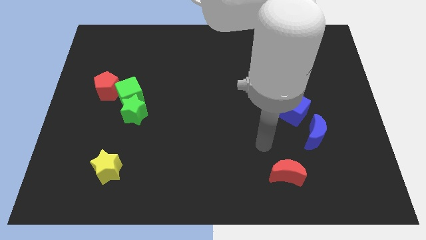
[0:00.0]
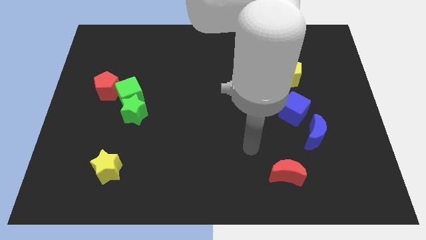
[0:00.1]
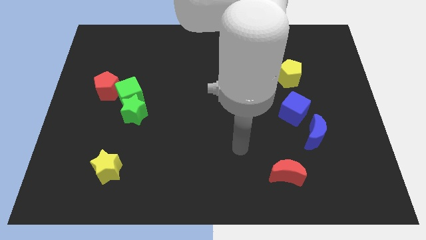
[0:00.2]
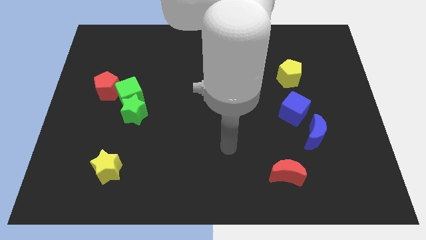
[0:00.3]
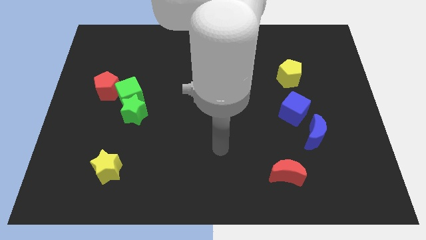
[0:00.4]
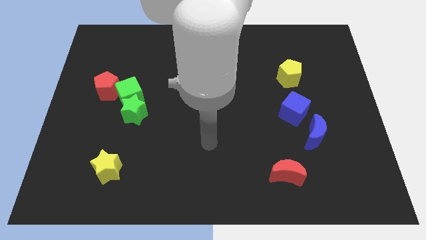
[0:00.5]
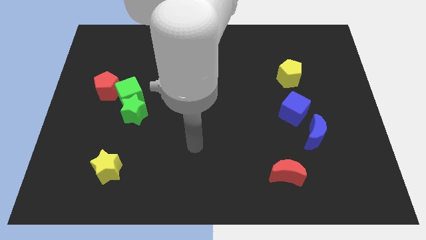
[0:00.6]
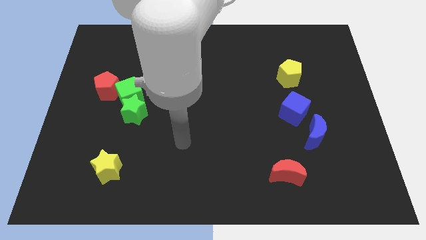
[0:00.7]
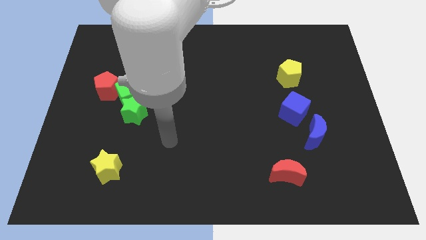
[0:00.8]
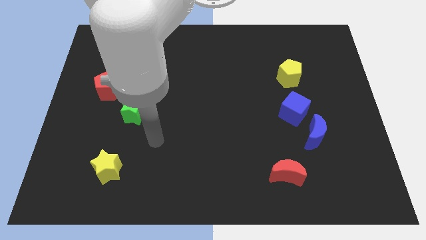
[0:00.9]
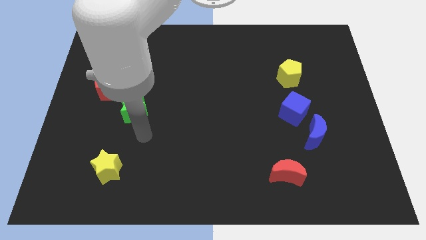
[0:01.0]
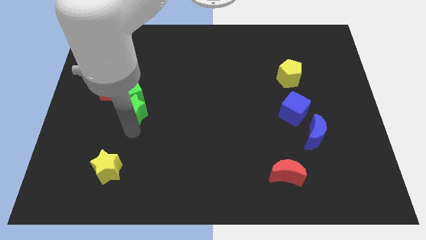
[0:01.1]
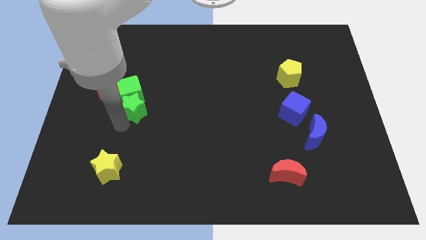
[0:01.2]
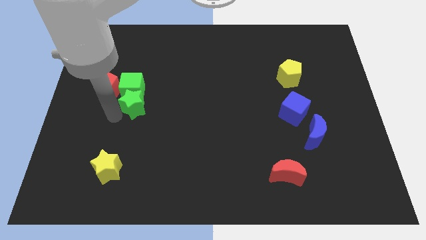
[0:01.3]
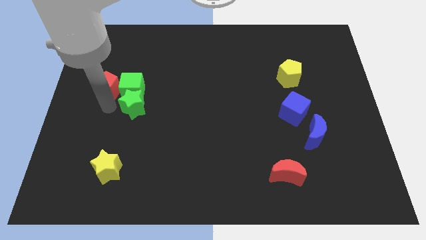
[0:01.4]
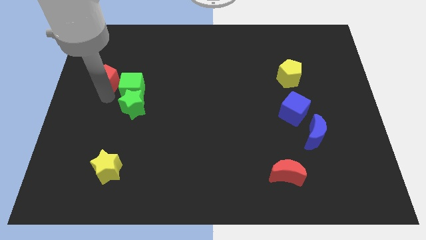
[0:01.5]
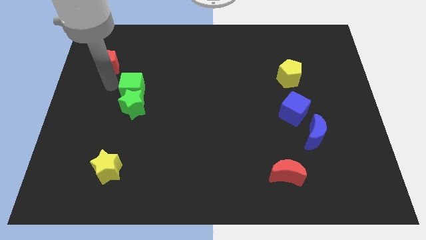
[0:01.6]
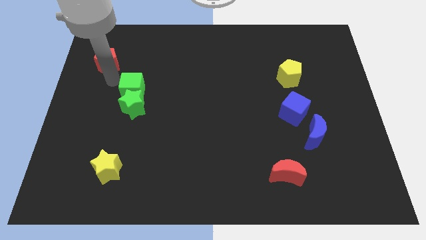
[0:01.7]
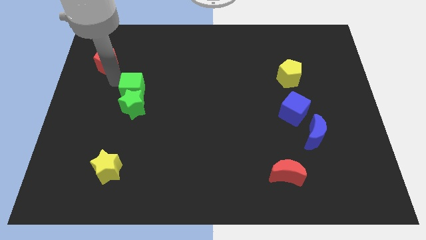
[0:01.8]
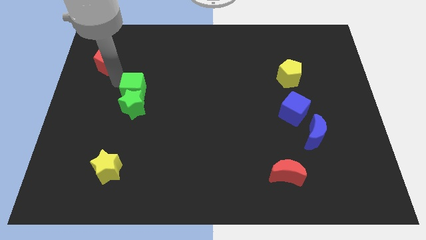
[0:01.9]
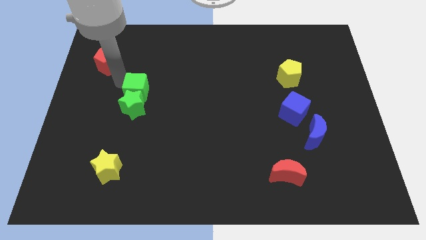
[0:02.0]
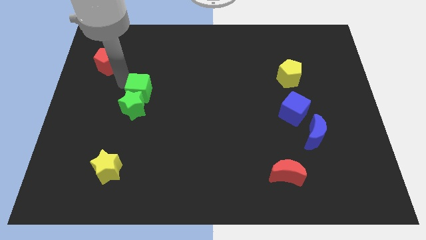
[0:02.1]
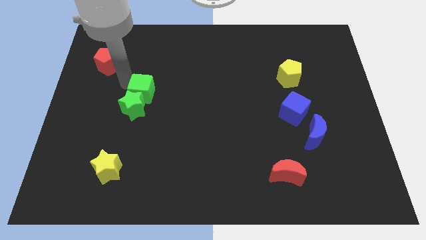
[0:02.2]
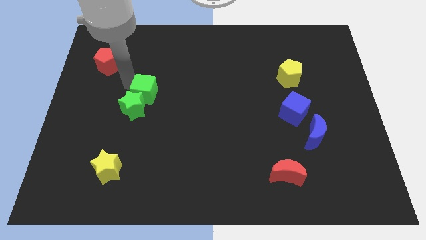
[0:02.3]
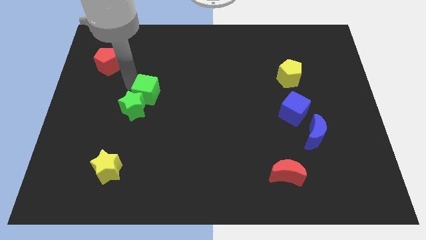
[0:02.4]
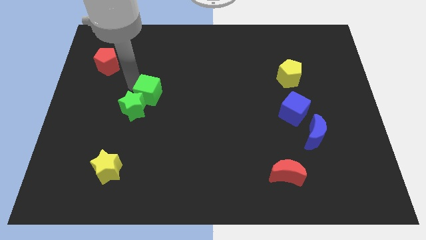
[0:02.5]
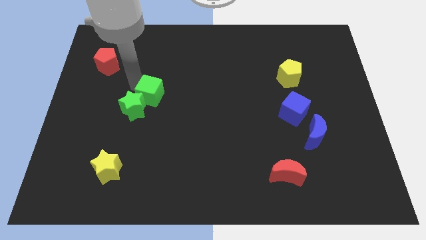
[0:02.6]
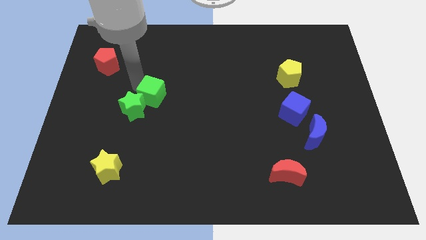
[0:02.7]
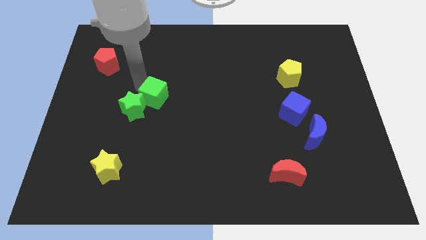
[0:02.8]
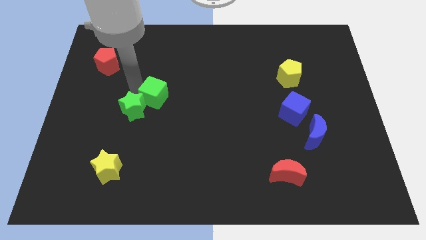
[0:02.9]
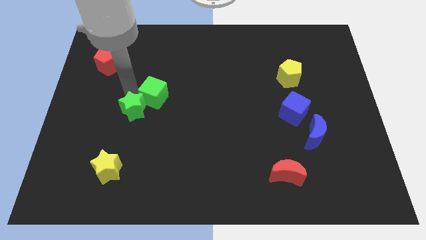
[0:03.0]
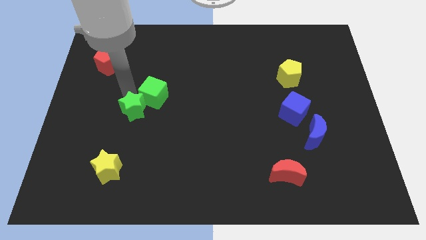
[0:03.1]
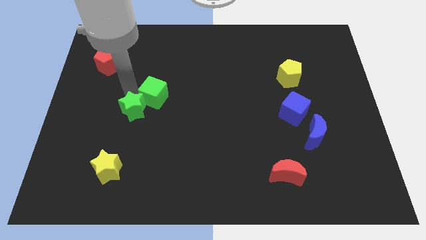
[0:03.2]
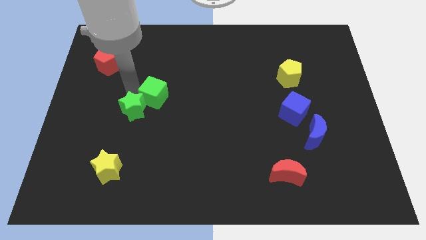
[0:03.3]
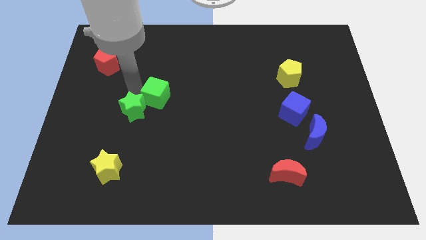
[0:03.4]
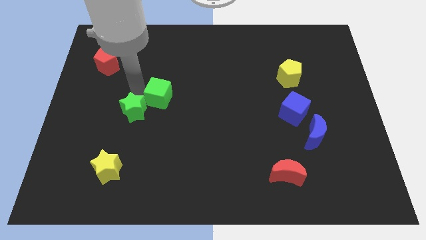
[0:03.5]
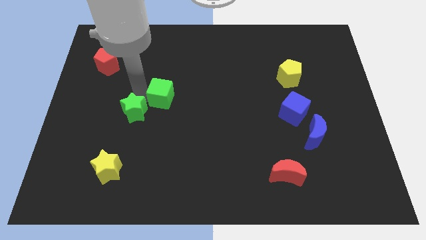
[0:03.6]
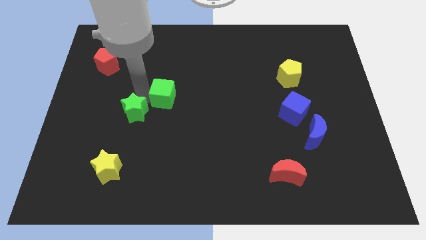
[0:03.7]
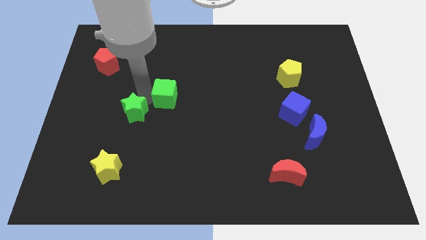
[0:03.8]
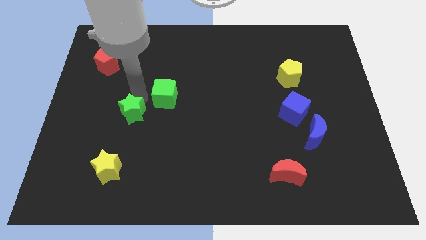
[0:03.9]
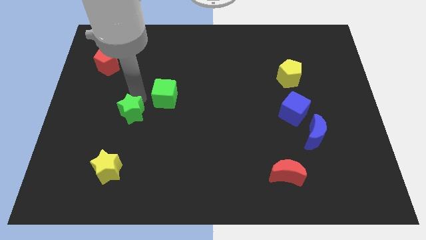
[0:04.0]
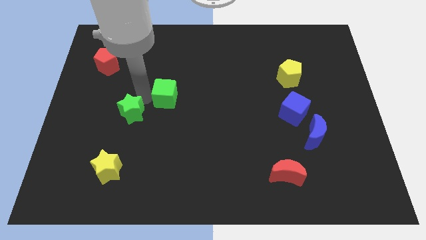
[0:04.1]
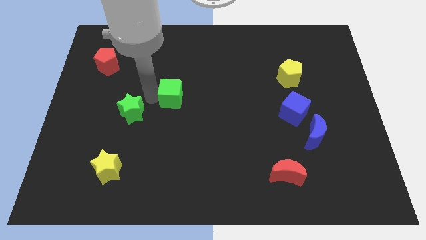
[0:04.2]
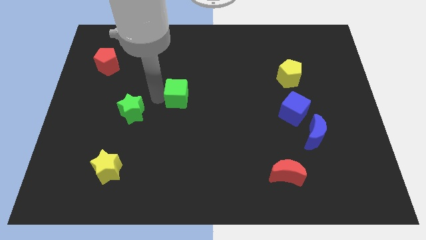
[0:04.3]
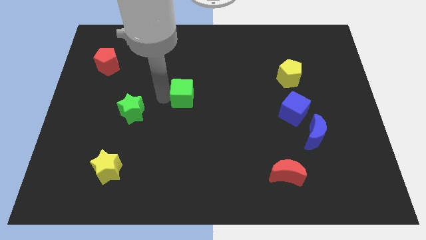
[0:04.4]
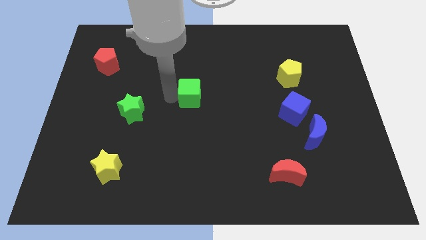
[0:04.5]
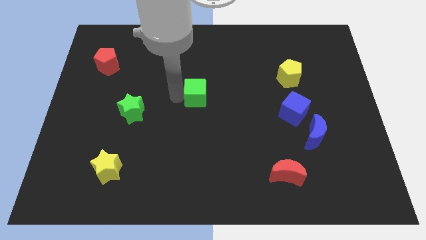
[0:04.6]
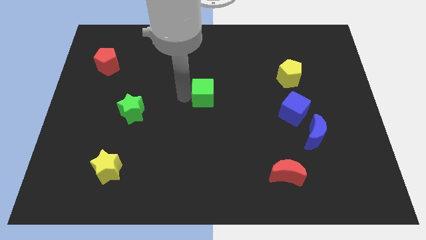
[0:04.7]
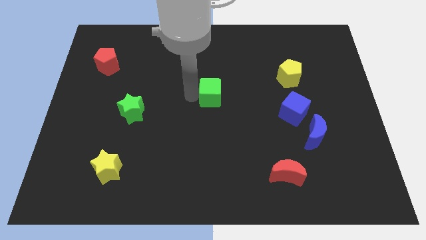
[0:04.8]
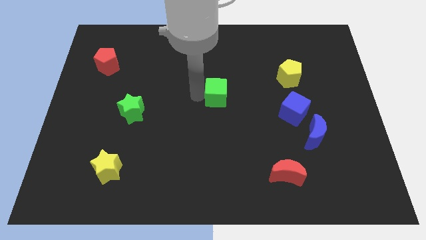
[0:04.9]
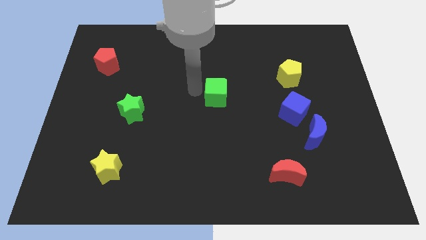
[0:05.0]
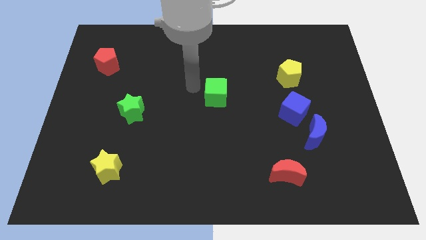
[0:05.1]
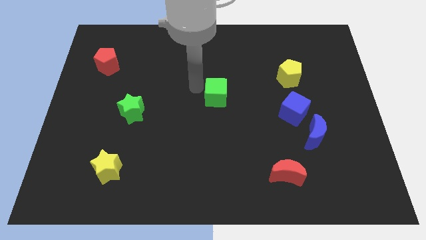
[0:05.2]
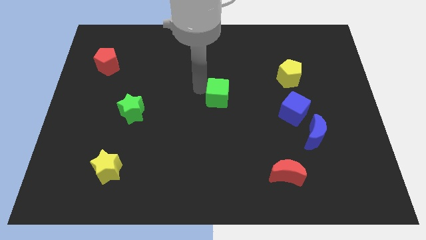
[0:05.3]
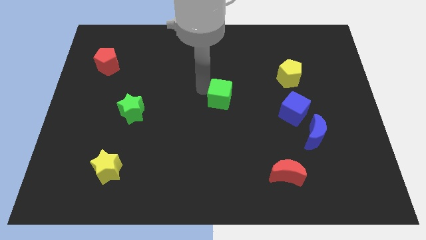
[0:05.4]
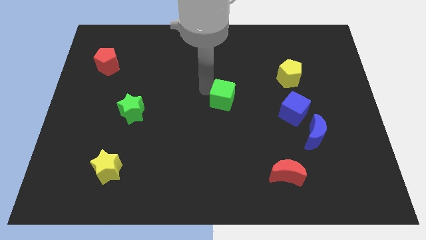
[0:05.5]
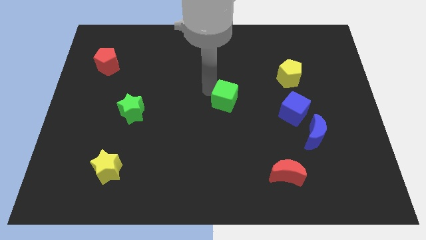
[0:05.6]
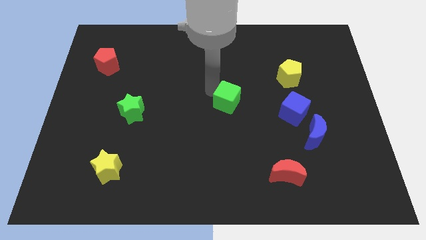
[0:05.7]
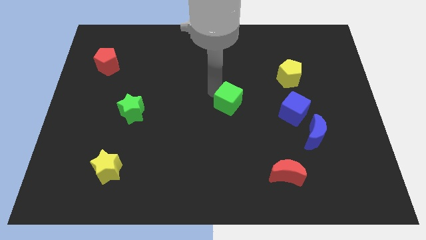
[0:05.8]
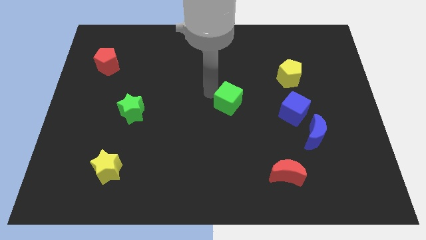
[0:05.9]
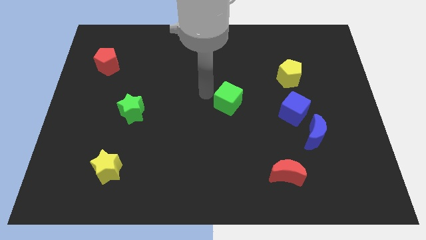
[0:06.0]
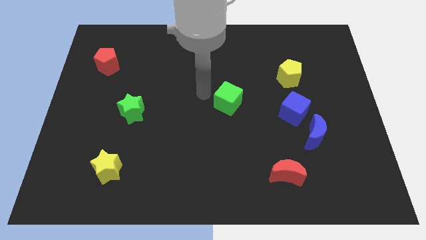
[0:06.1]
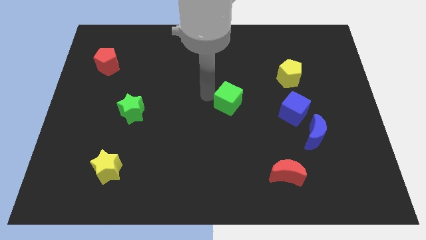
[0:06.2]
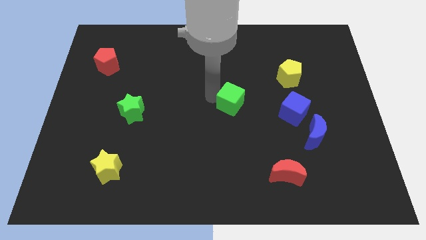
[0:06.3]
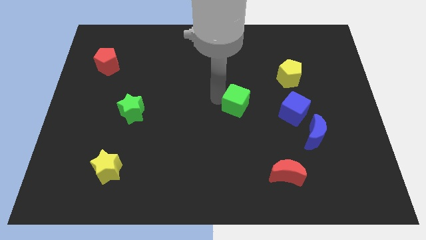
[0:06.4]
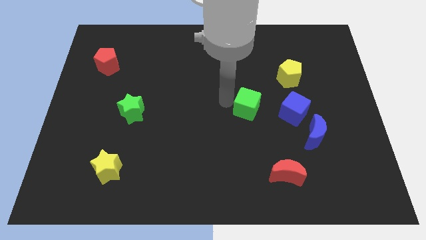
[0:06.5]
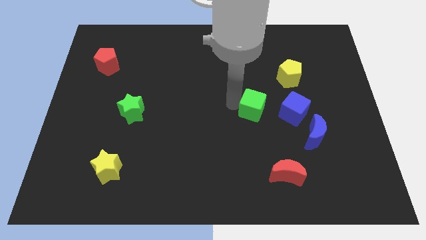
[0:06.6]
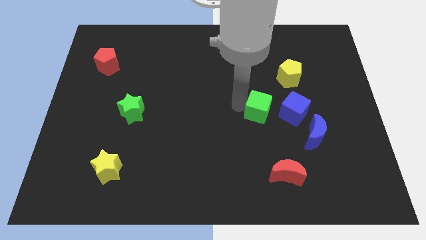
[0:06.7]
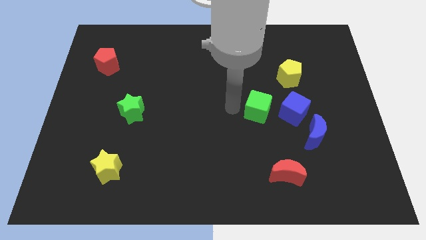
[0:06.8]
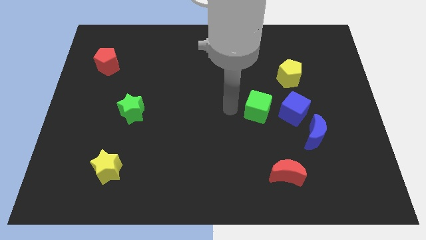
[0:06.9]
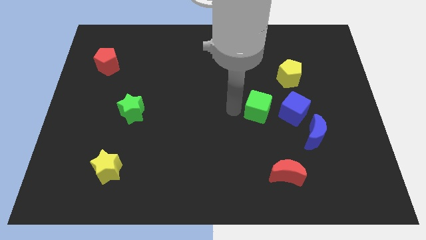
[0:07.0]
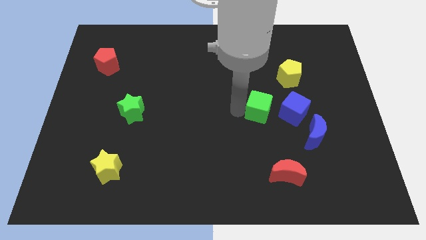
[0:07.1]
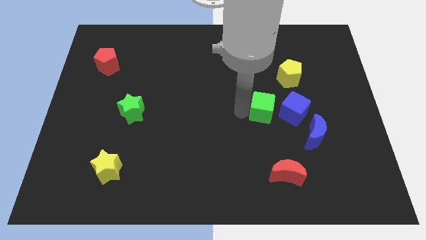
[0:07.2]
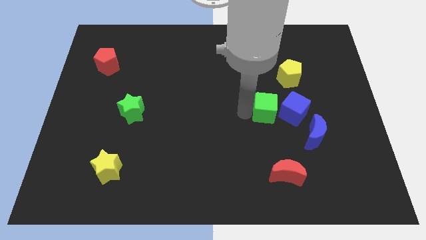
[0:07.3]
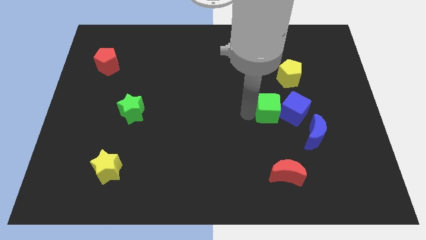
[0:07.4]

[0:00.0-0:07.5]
put the green cube next to the blue cube

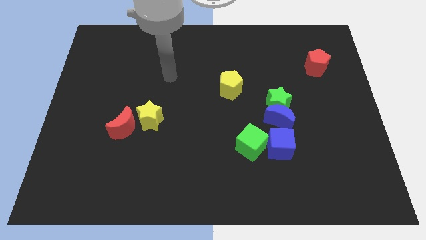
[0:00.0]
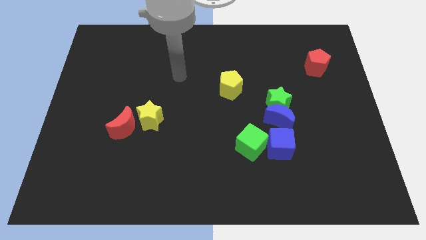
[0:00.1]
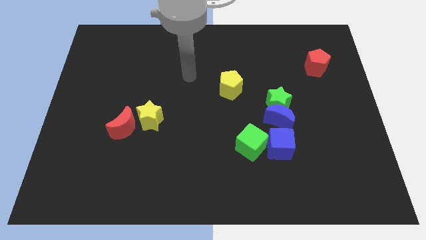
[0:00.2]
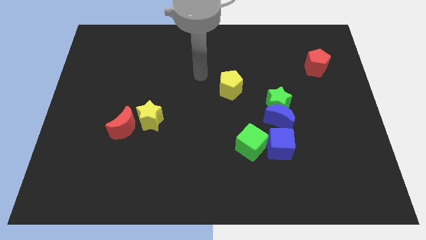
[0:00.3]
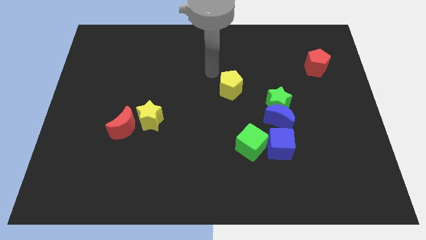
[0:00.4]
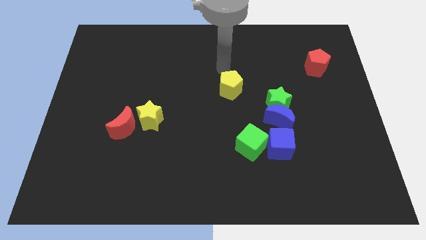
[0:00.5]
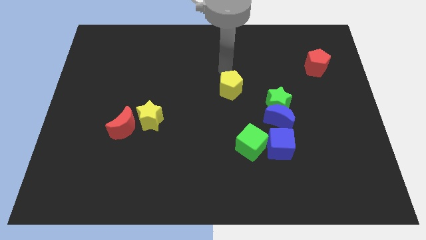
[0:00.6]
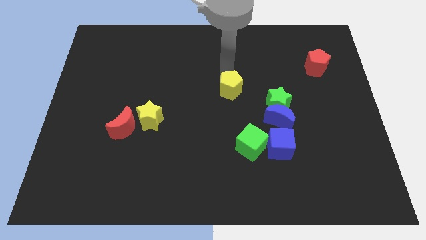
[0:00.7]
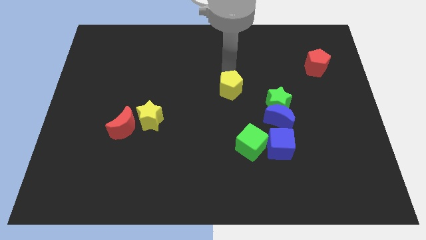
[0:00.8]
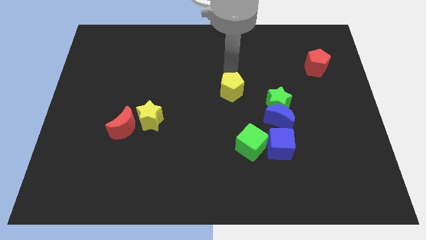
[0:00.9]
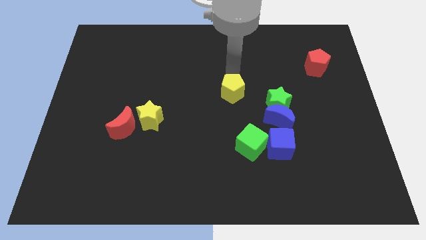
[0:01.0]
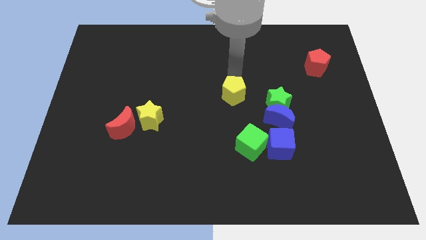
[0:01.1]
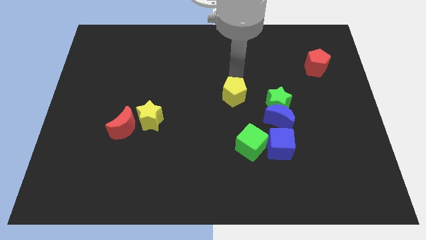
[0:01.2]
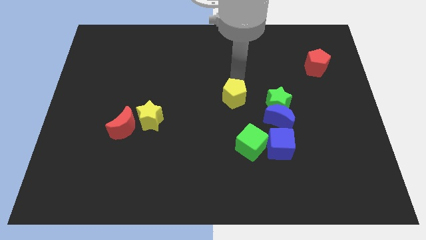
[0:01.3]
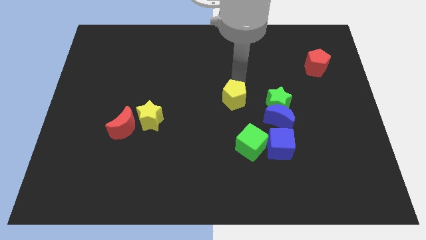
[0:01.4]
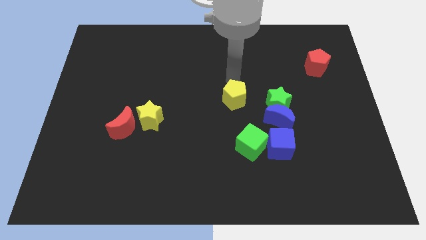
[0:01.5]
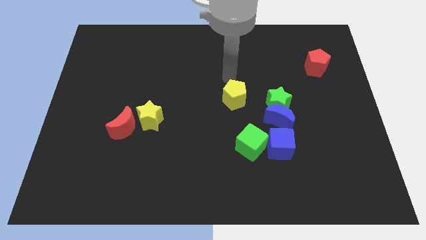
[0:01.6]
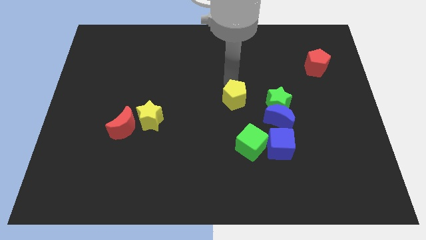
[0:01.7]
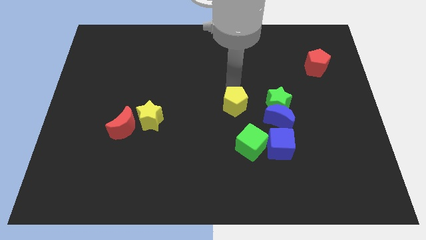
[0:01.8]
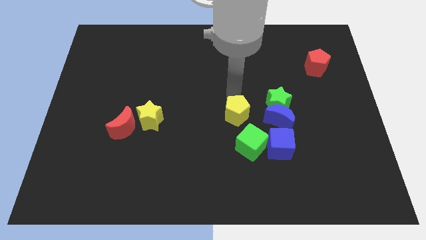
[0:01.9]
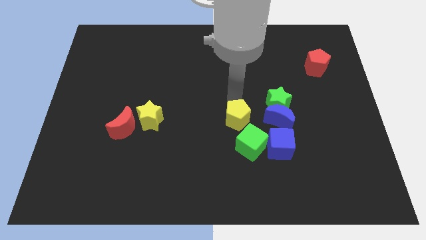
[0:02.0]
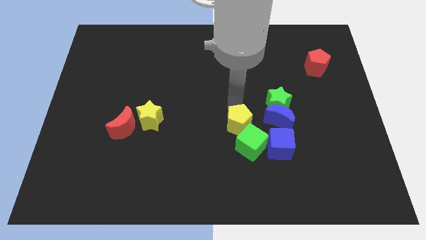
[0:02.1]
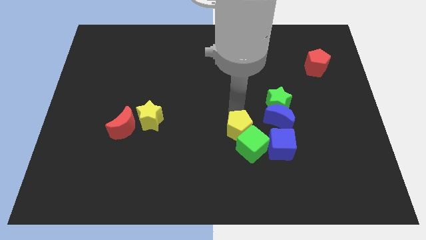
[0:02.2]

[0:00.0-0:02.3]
move the yellow pentagon towards the green cube
